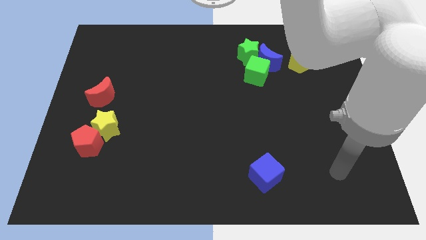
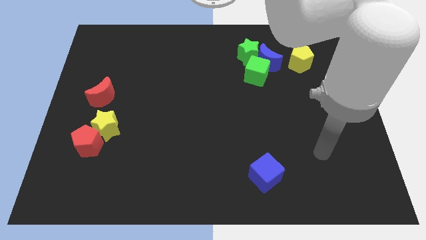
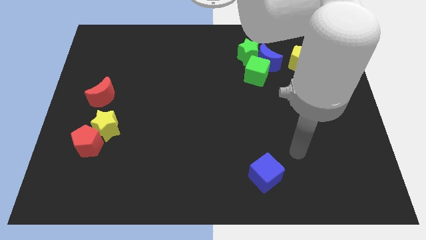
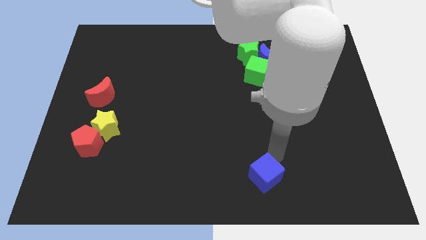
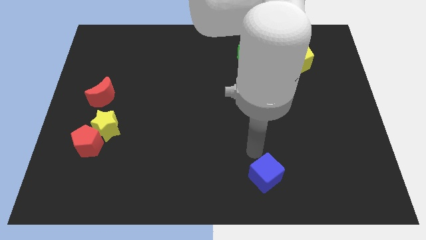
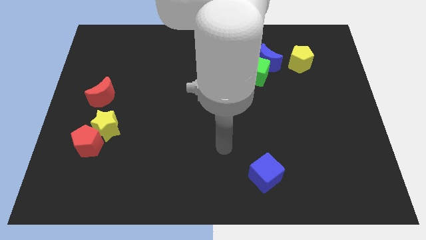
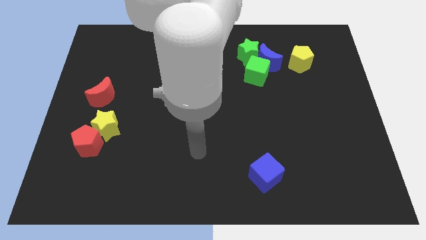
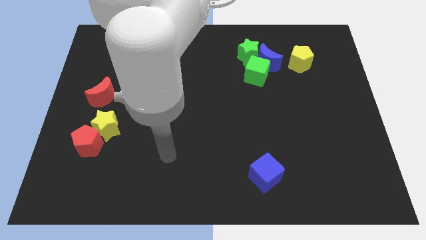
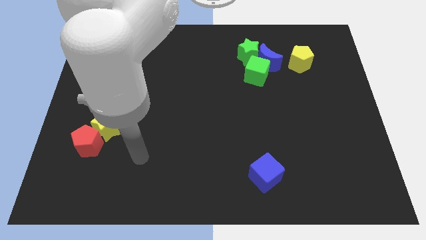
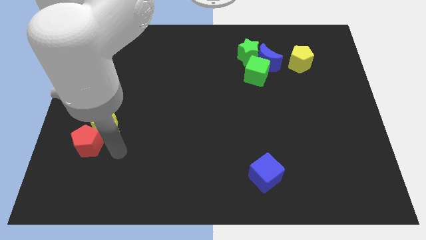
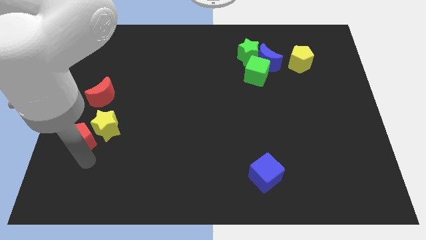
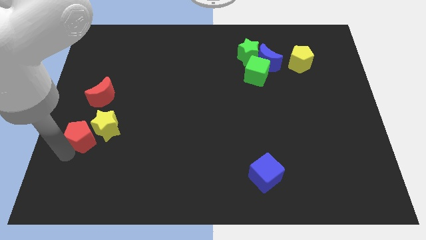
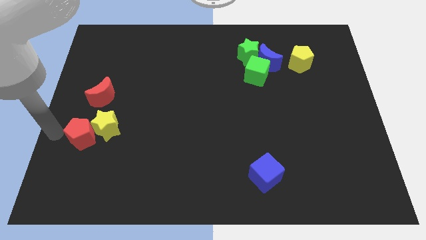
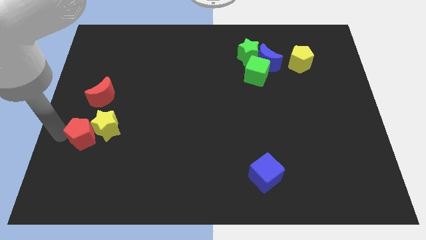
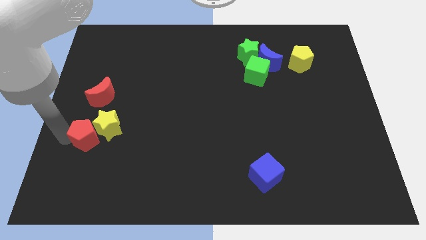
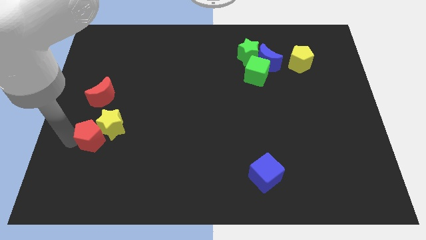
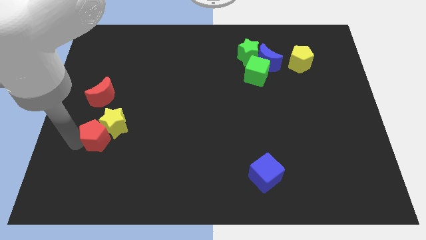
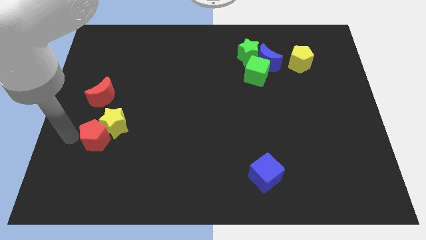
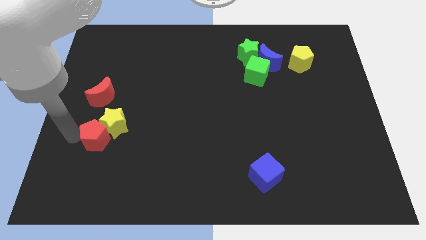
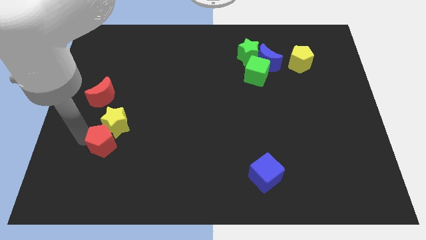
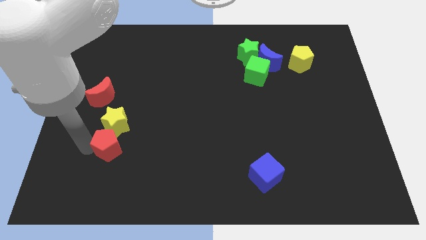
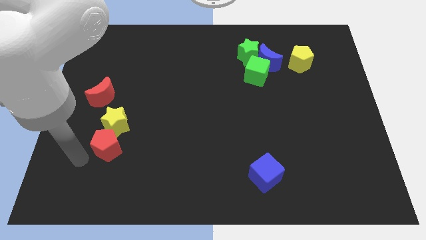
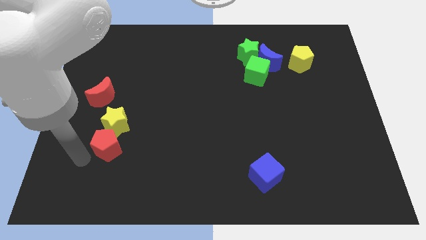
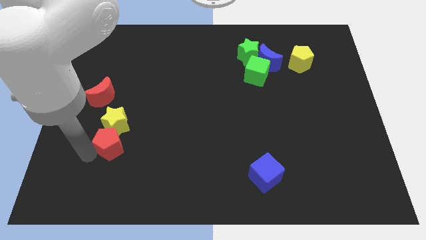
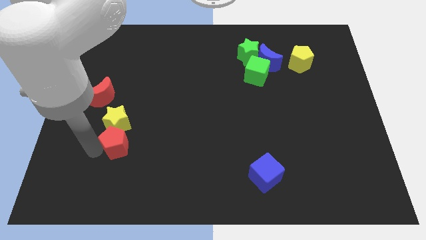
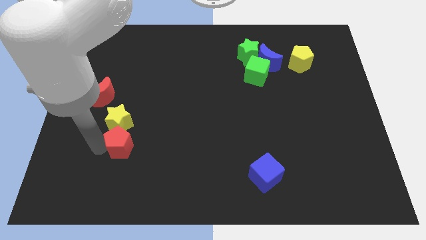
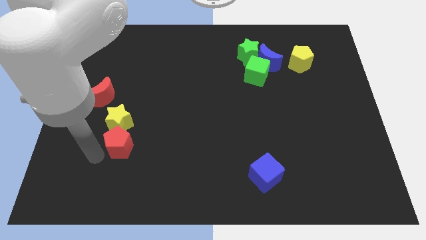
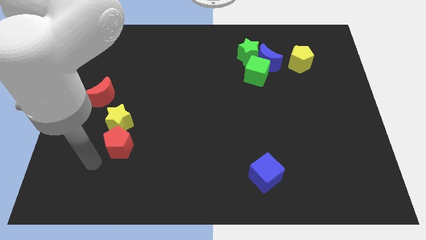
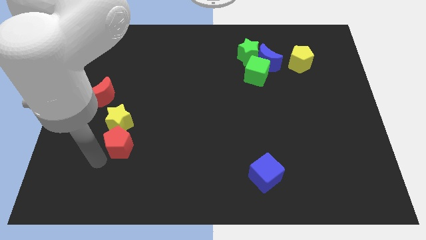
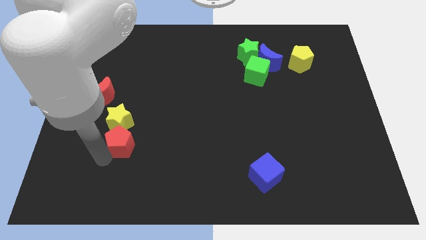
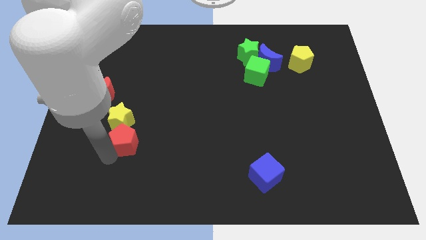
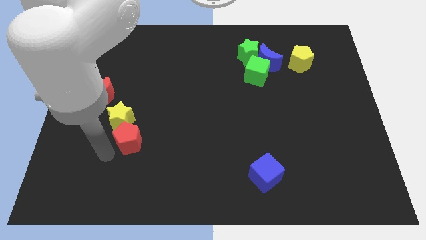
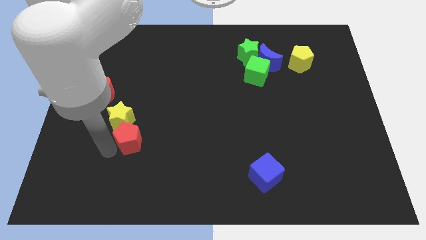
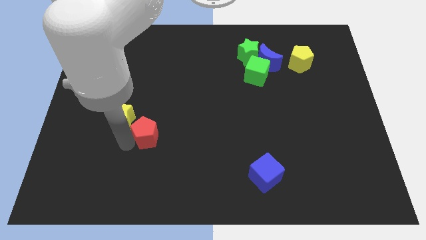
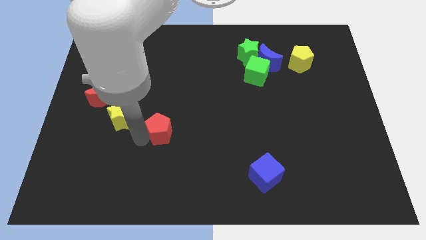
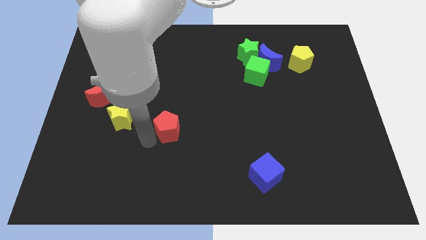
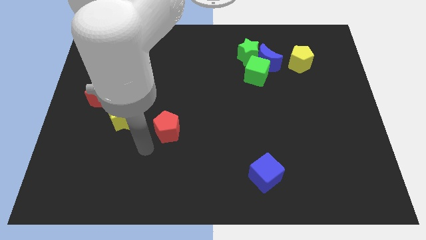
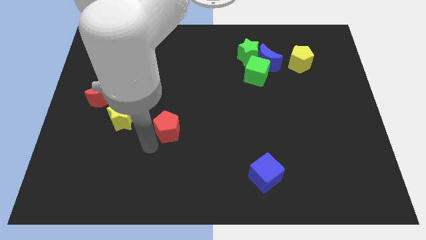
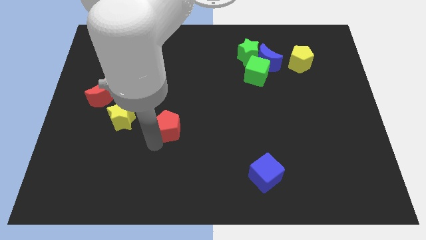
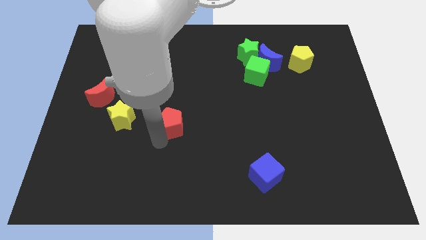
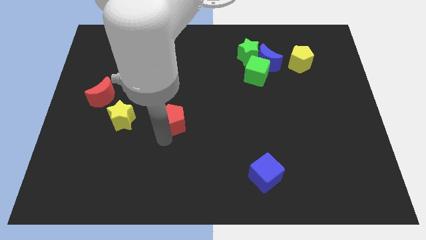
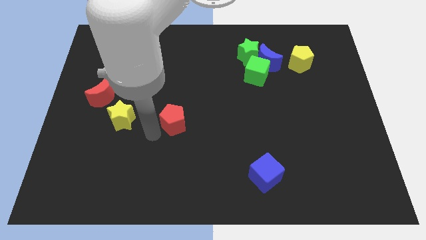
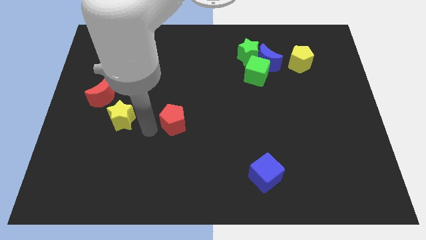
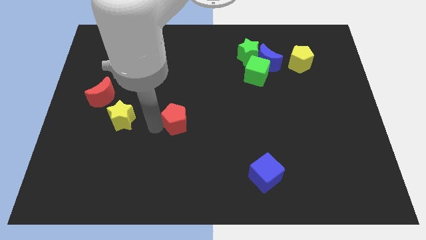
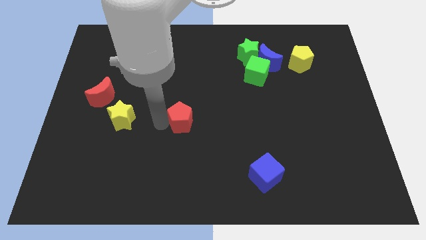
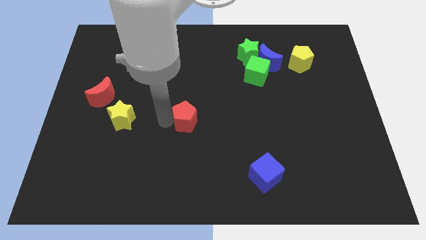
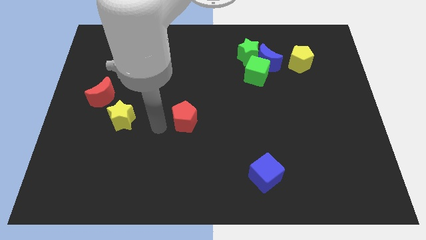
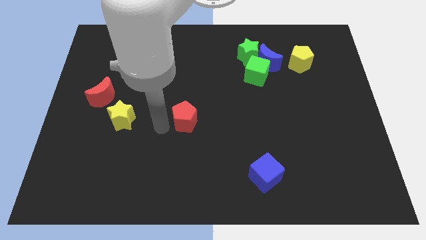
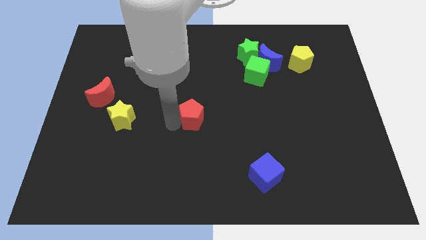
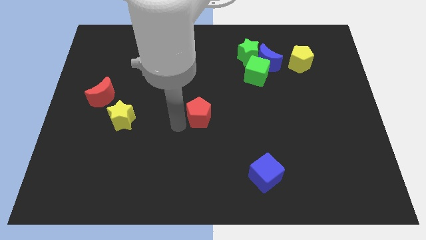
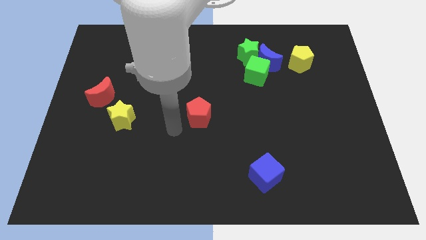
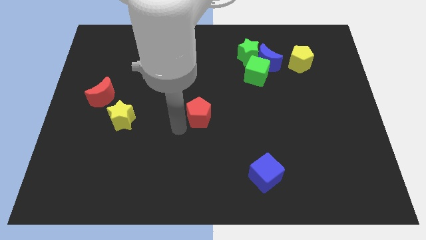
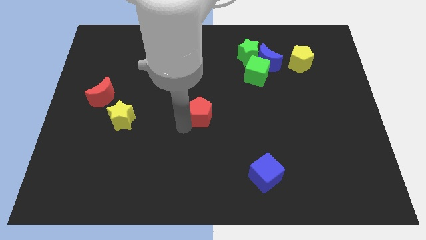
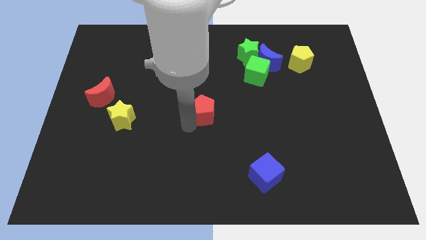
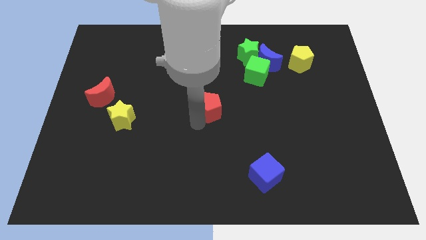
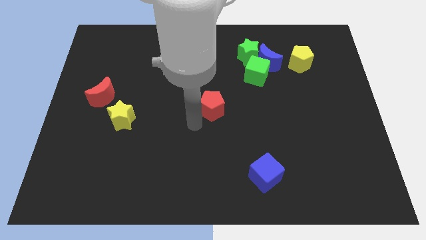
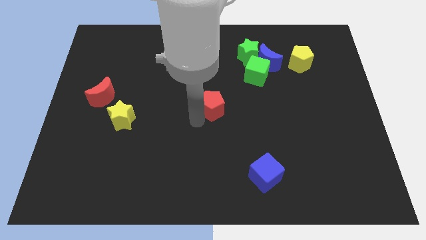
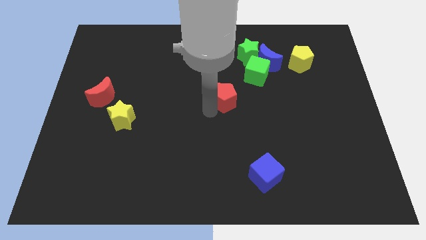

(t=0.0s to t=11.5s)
slide the red pentagon diagonally down and to the left of the green cube

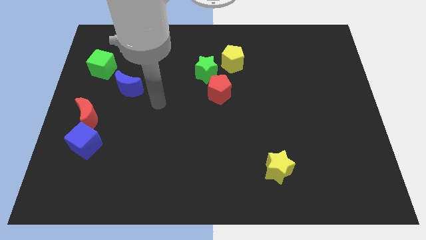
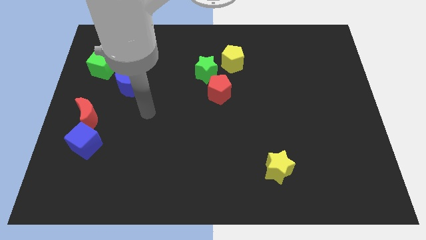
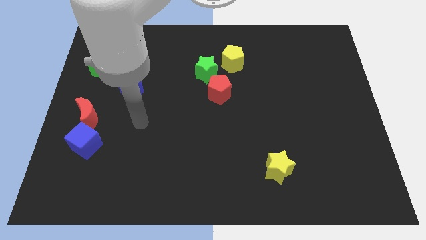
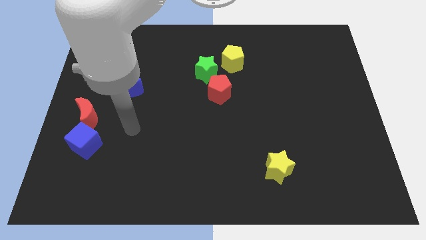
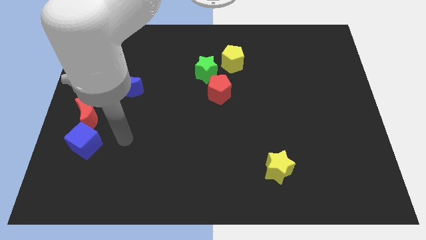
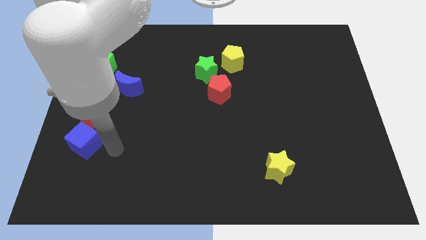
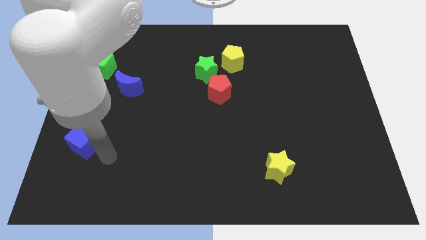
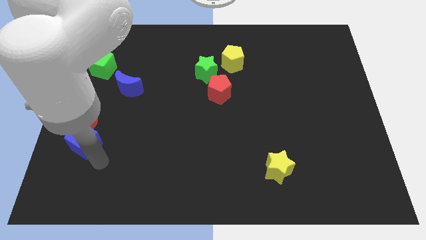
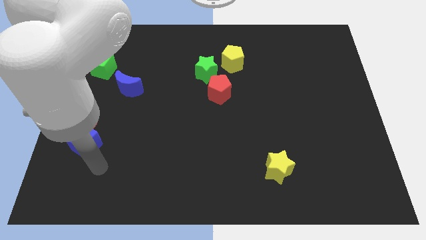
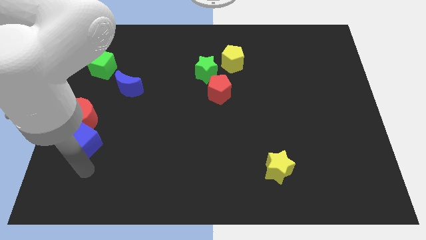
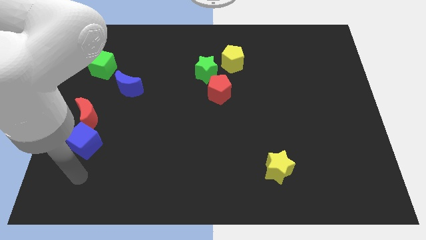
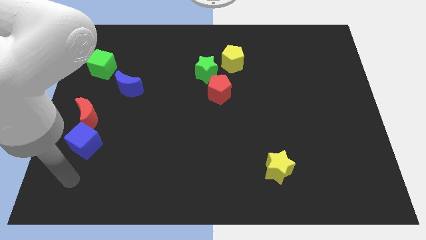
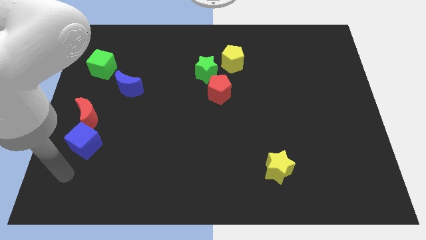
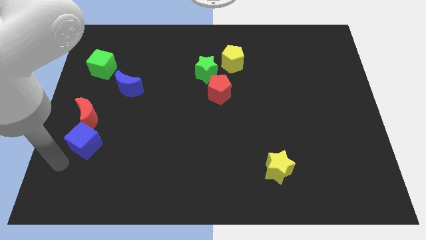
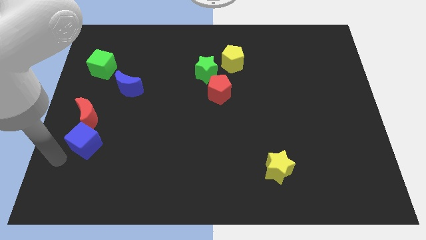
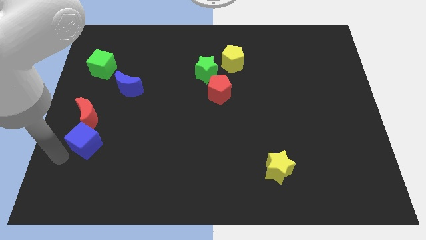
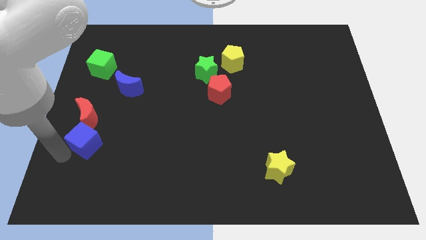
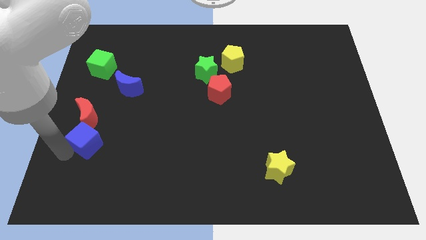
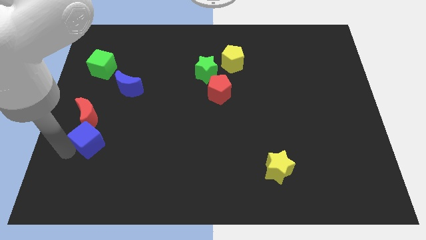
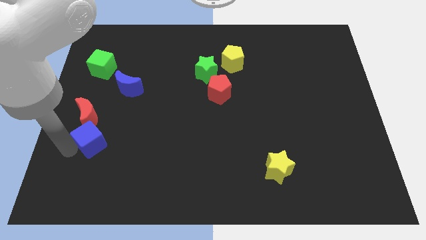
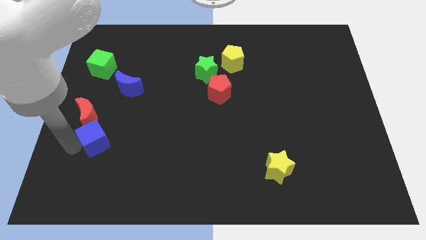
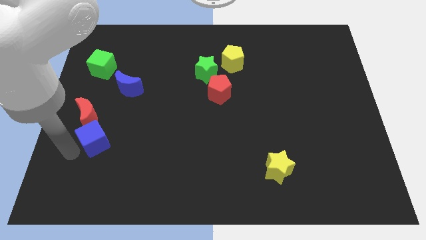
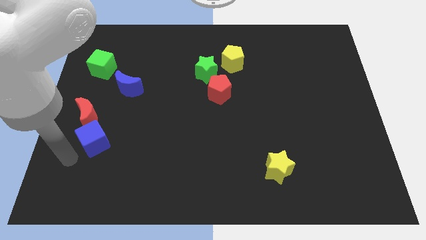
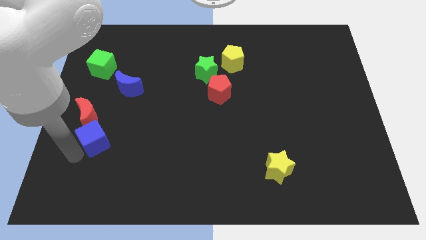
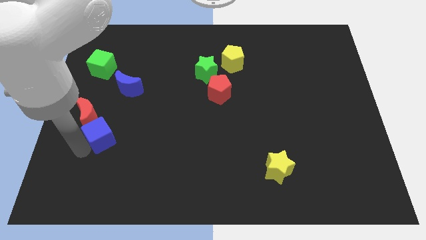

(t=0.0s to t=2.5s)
put the blue cube to the bottom side of the blue moon
